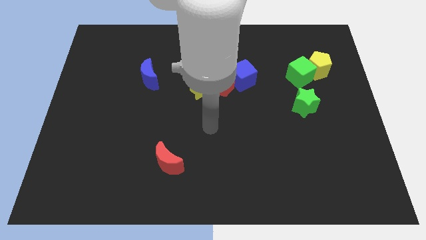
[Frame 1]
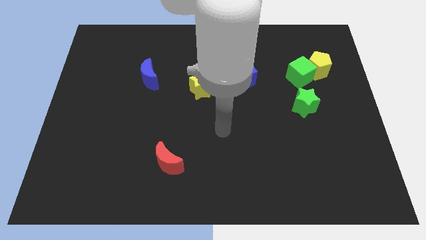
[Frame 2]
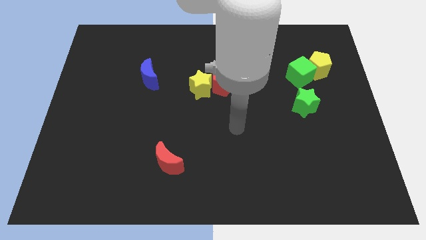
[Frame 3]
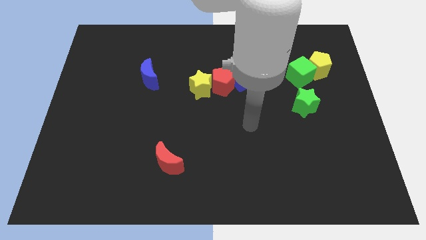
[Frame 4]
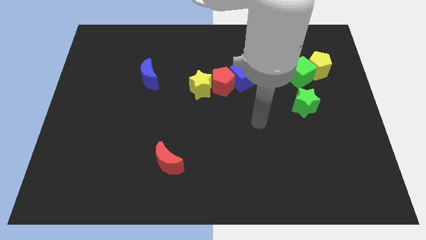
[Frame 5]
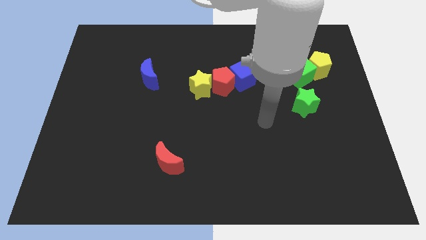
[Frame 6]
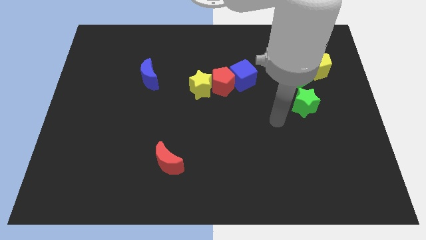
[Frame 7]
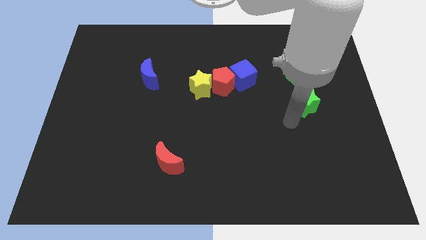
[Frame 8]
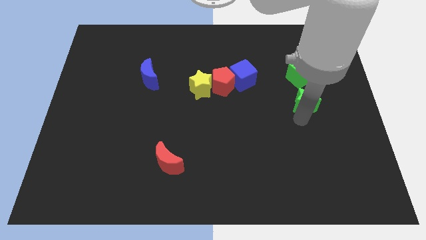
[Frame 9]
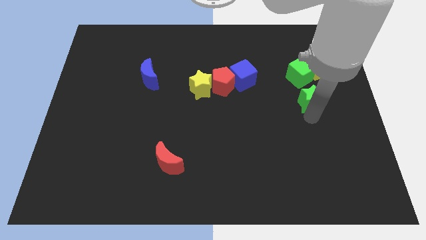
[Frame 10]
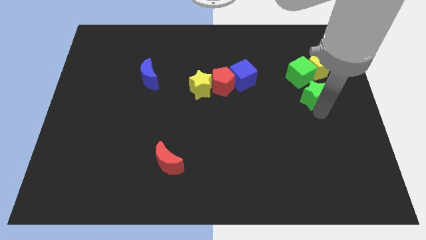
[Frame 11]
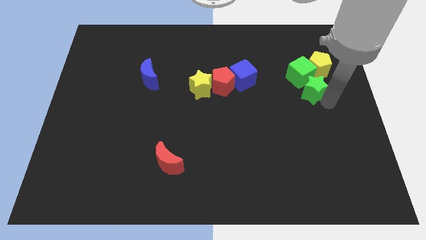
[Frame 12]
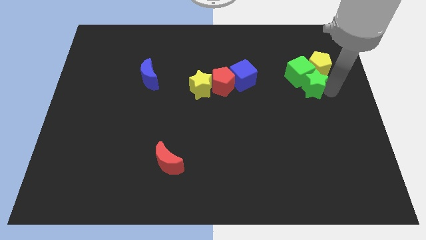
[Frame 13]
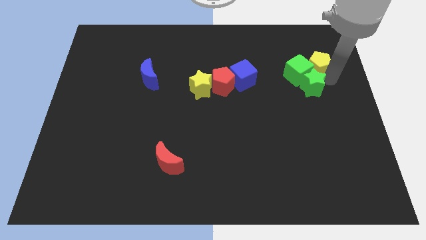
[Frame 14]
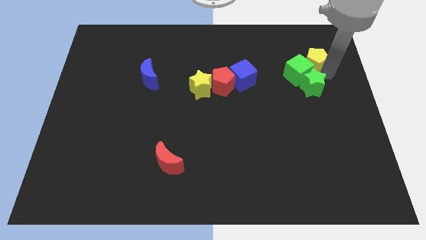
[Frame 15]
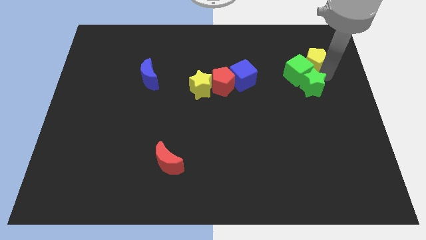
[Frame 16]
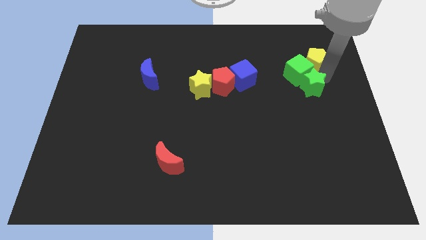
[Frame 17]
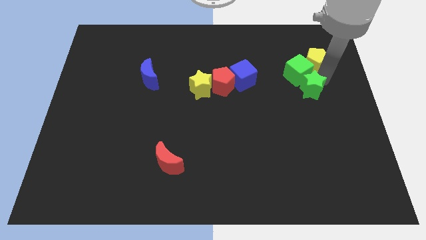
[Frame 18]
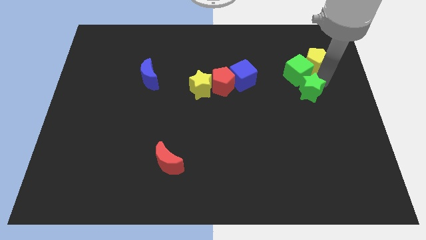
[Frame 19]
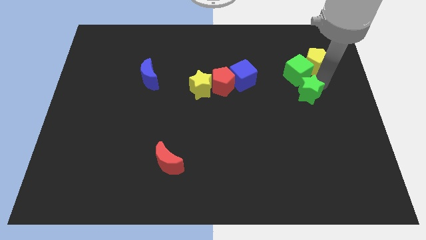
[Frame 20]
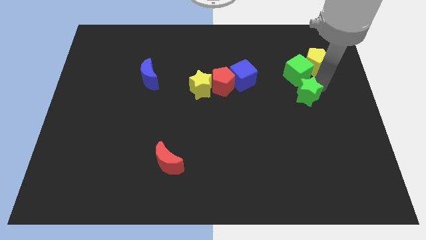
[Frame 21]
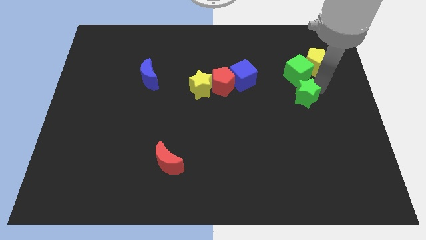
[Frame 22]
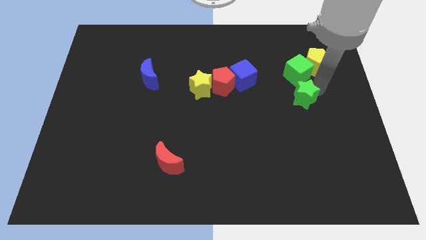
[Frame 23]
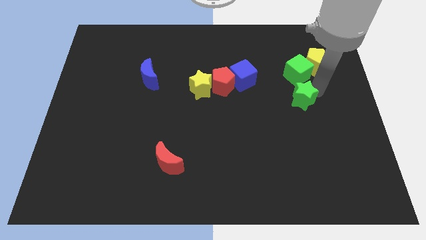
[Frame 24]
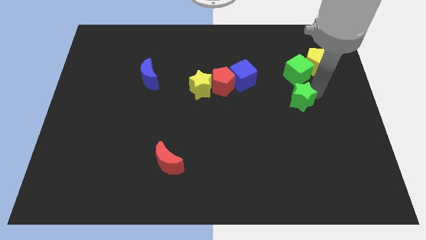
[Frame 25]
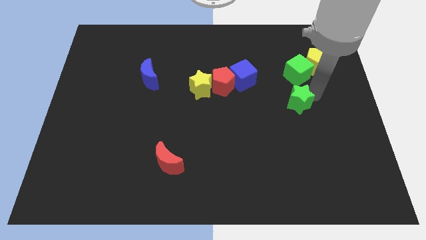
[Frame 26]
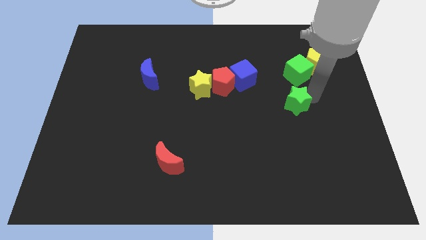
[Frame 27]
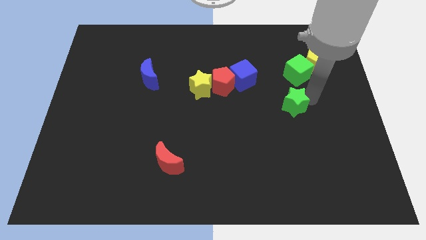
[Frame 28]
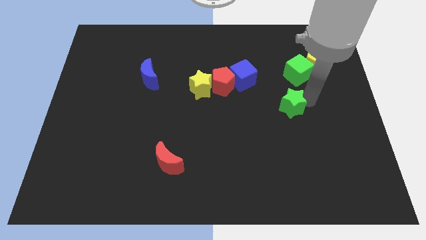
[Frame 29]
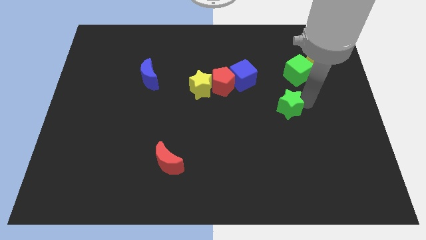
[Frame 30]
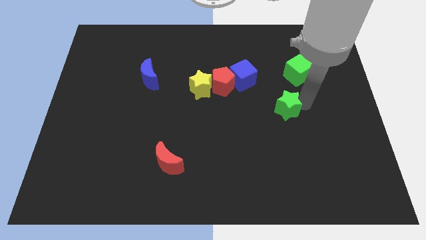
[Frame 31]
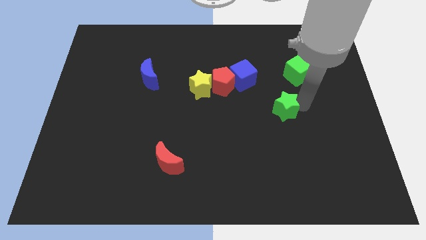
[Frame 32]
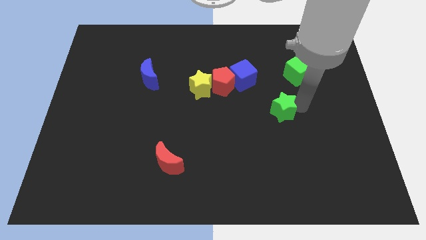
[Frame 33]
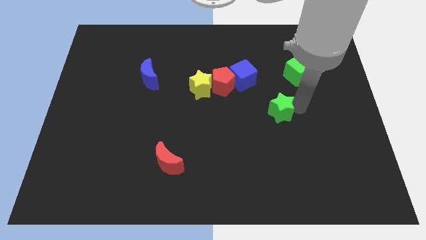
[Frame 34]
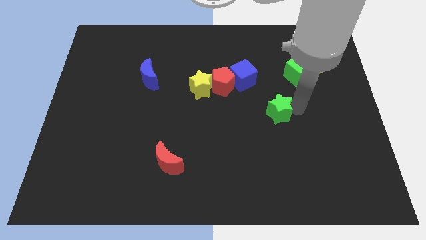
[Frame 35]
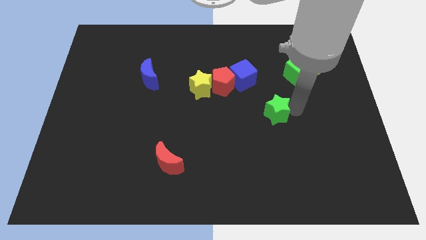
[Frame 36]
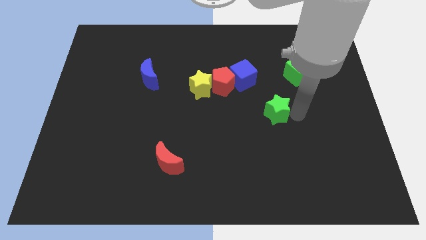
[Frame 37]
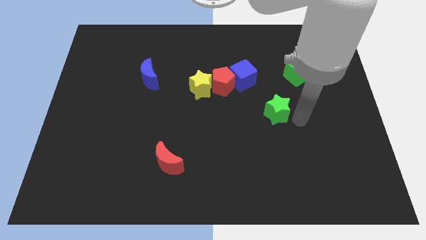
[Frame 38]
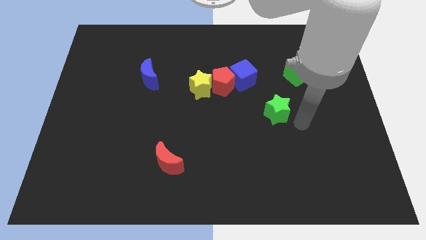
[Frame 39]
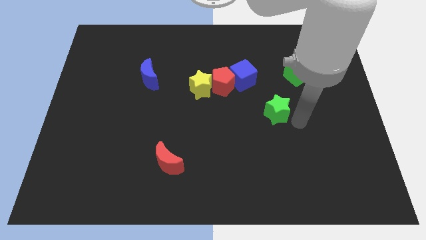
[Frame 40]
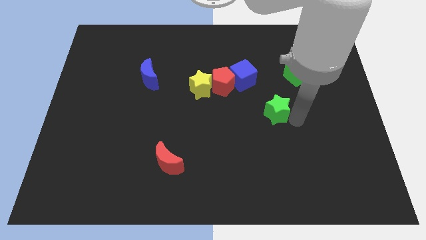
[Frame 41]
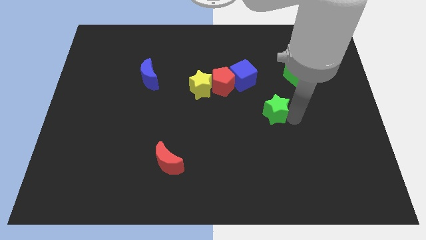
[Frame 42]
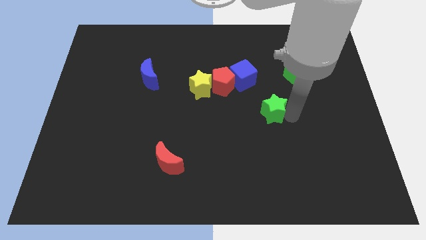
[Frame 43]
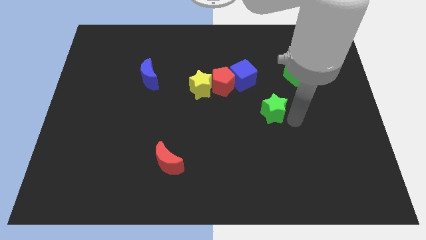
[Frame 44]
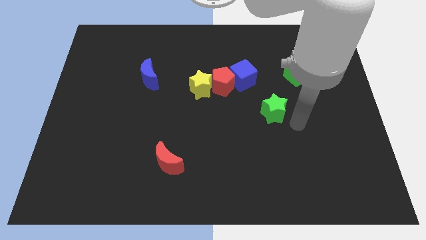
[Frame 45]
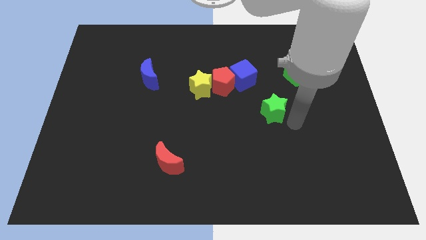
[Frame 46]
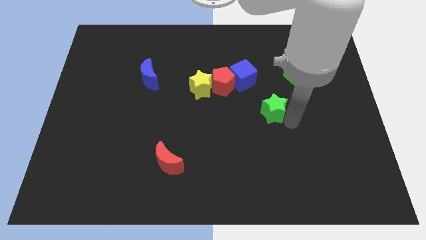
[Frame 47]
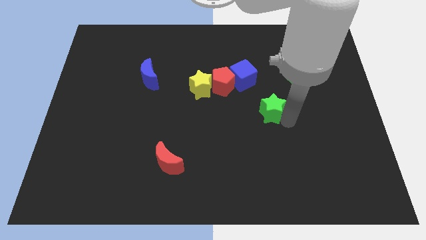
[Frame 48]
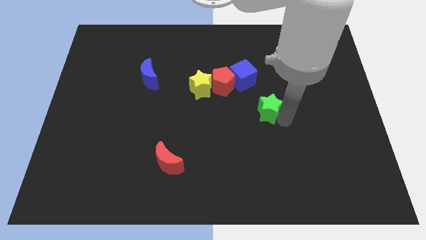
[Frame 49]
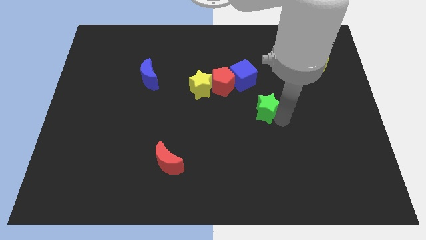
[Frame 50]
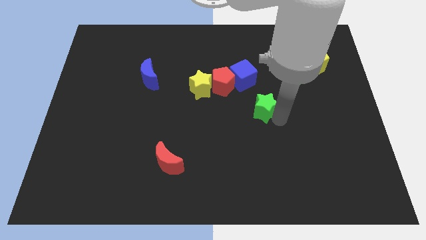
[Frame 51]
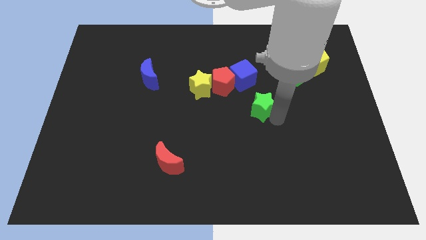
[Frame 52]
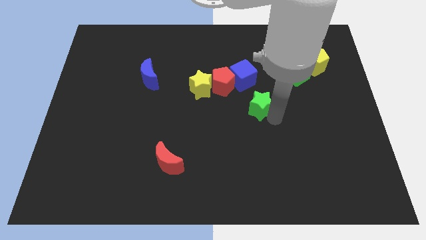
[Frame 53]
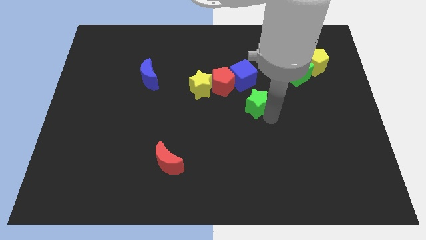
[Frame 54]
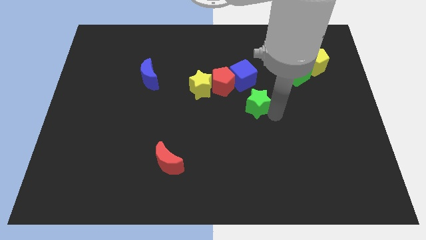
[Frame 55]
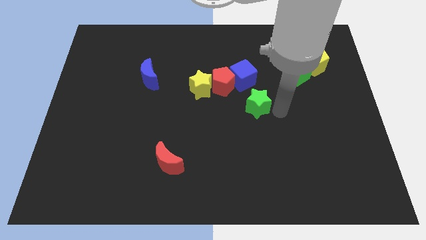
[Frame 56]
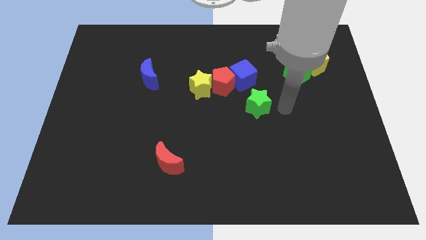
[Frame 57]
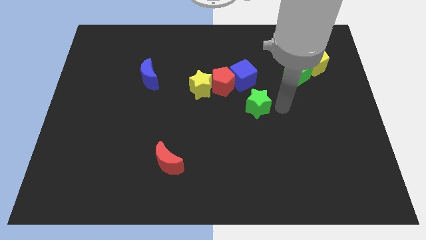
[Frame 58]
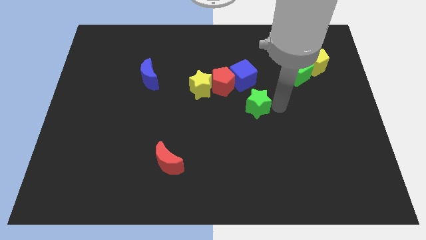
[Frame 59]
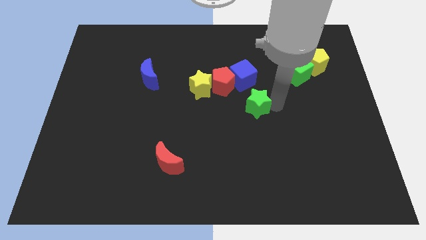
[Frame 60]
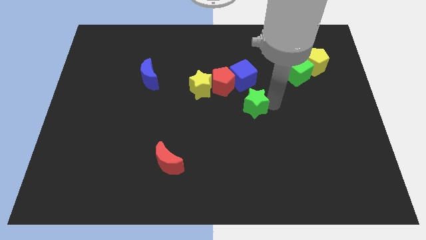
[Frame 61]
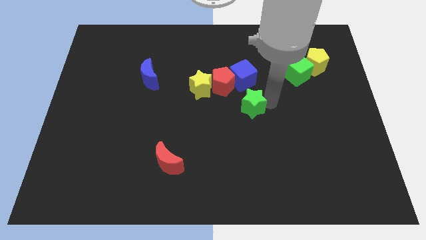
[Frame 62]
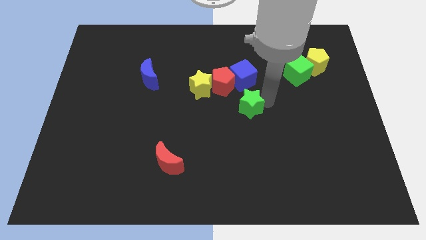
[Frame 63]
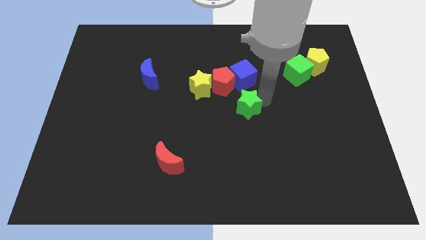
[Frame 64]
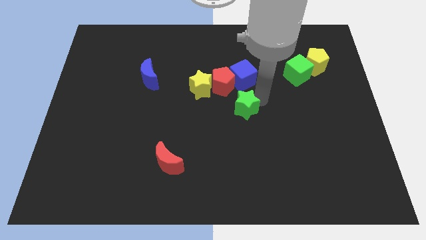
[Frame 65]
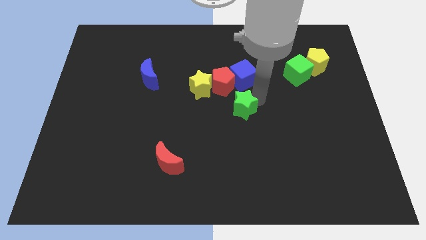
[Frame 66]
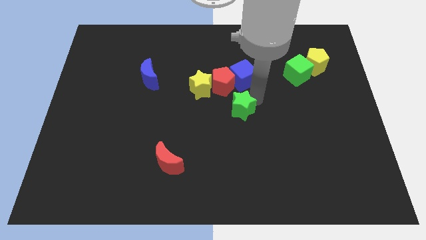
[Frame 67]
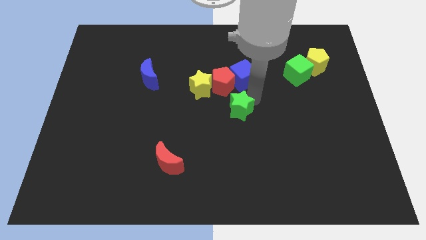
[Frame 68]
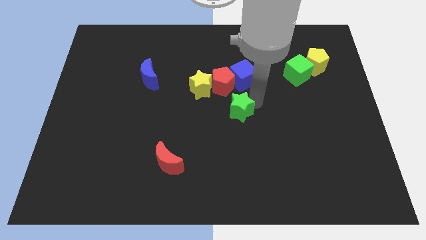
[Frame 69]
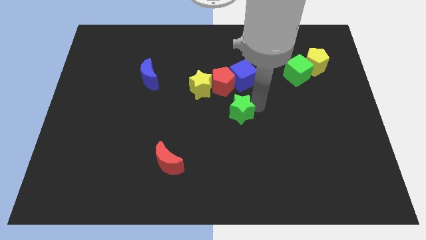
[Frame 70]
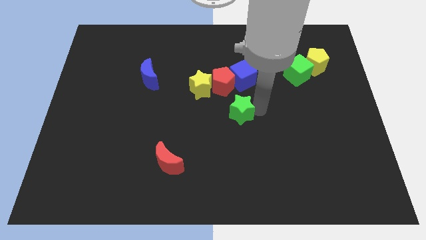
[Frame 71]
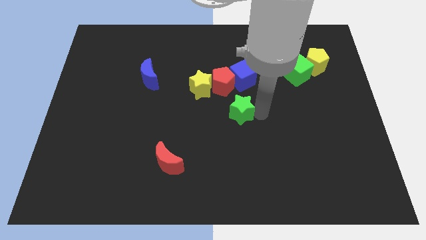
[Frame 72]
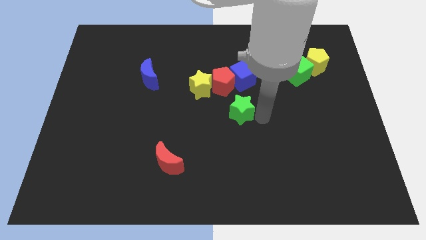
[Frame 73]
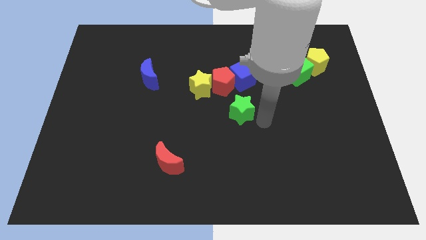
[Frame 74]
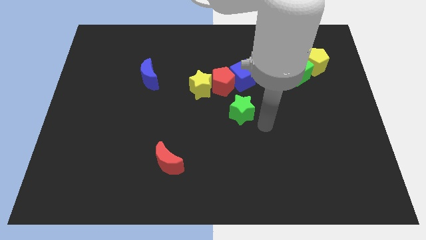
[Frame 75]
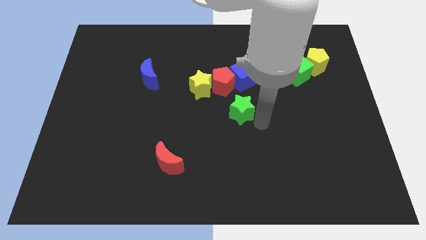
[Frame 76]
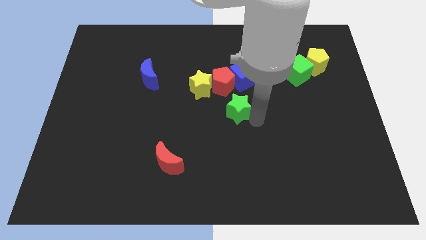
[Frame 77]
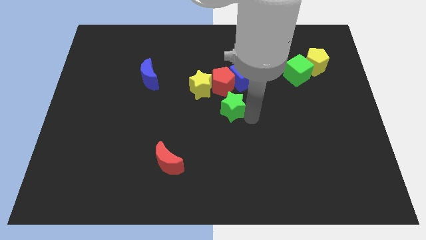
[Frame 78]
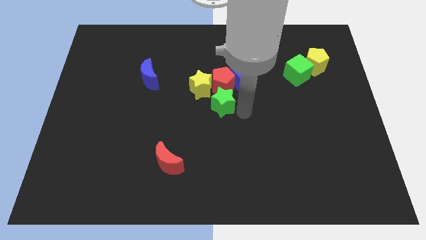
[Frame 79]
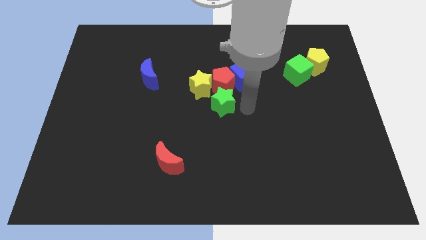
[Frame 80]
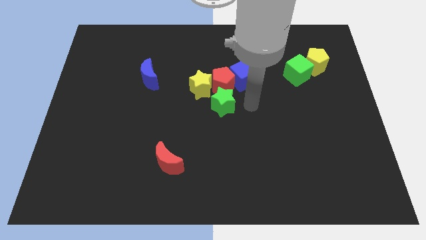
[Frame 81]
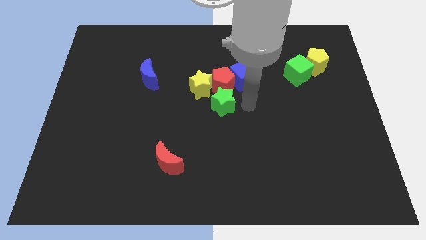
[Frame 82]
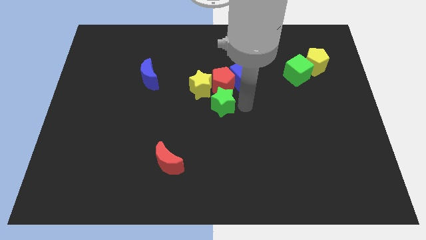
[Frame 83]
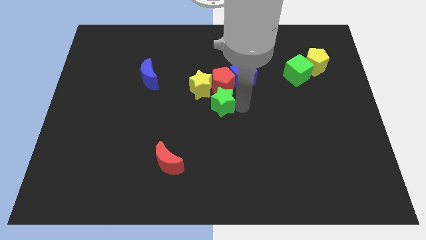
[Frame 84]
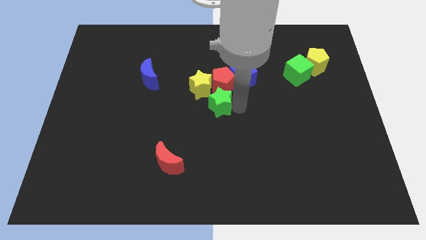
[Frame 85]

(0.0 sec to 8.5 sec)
move the green star left
